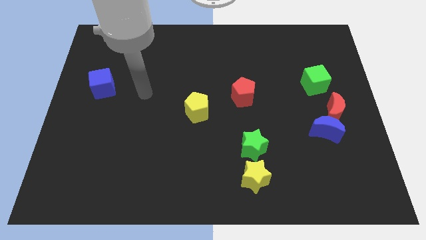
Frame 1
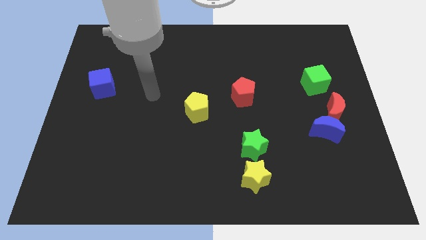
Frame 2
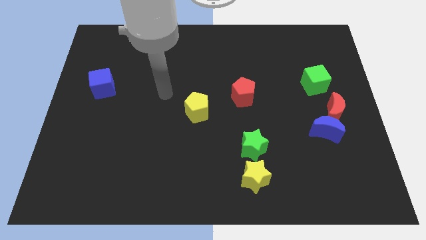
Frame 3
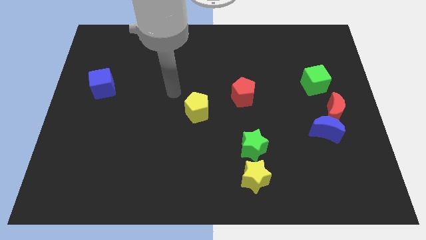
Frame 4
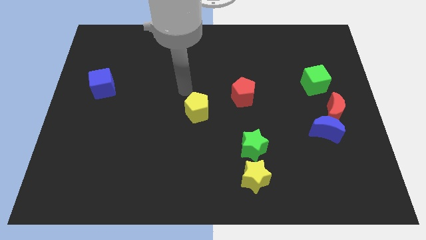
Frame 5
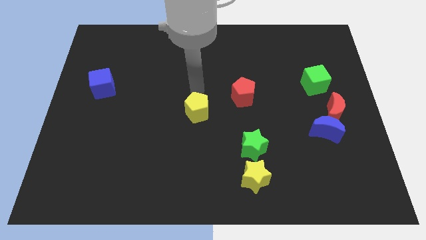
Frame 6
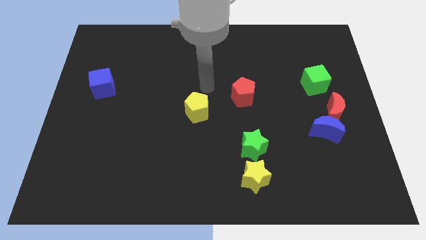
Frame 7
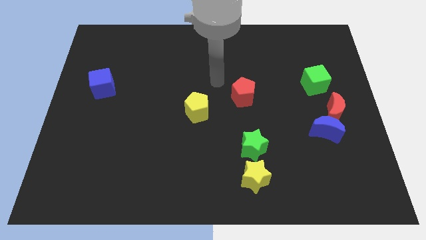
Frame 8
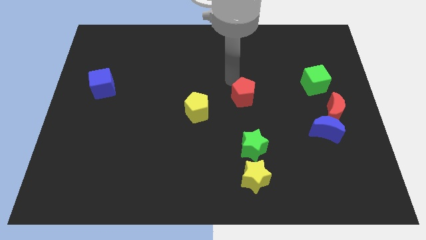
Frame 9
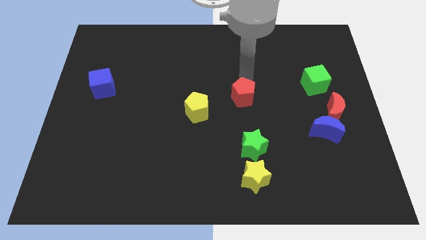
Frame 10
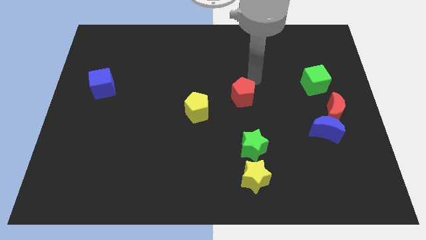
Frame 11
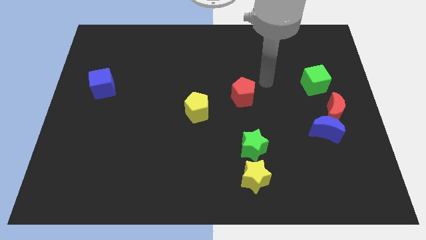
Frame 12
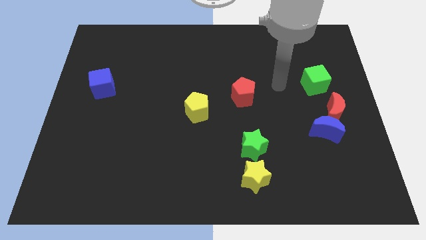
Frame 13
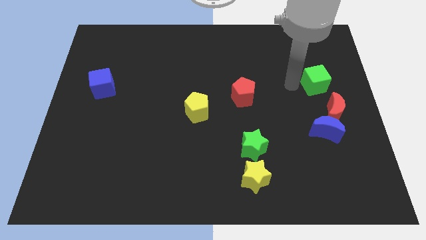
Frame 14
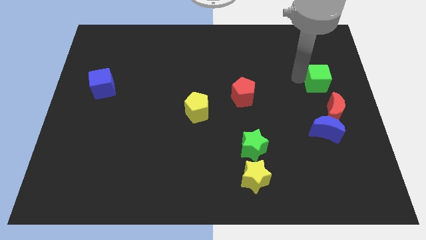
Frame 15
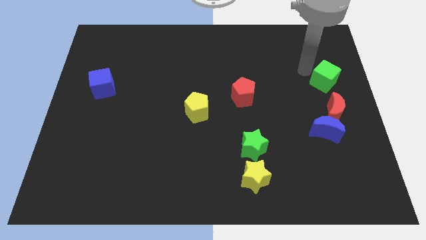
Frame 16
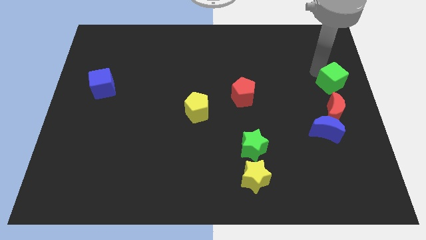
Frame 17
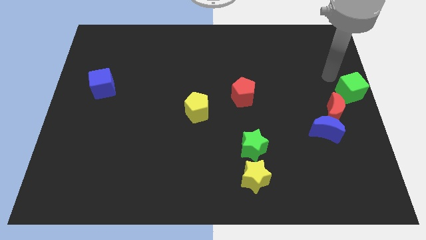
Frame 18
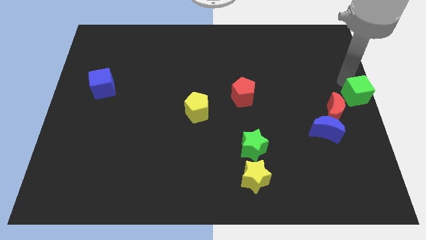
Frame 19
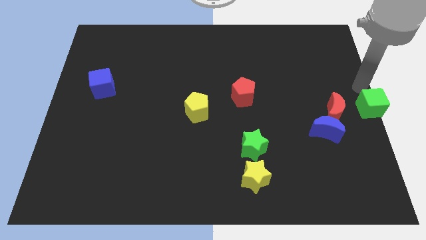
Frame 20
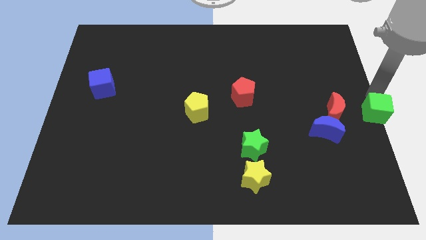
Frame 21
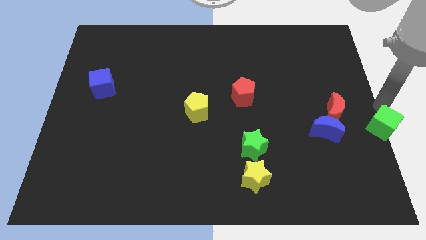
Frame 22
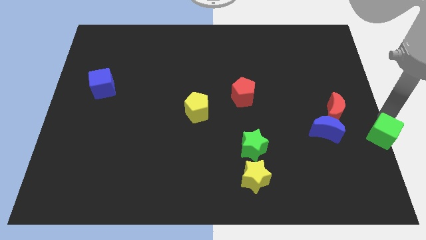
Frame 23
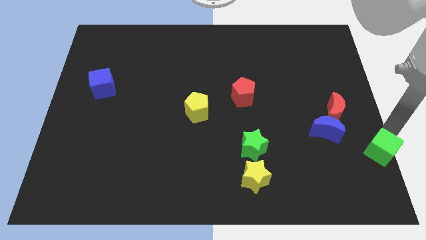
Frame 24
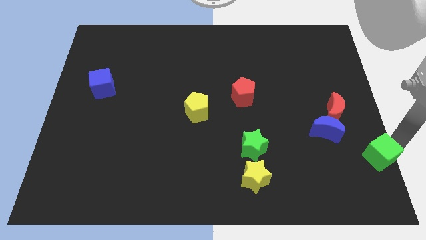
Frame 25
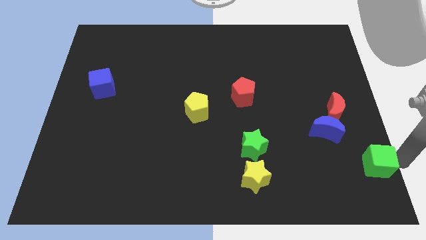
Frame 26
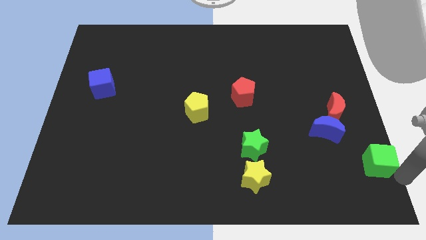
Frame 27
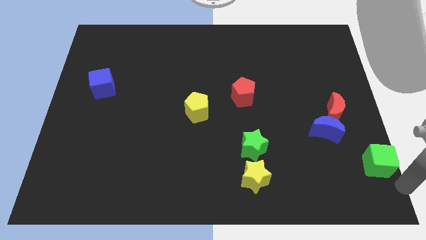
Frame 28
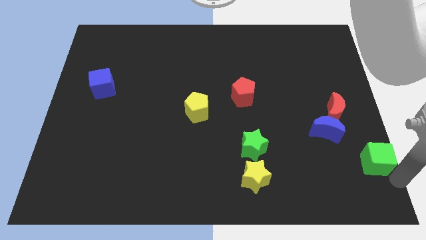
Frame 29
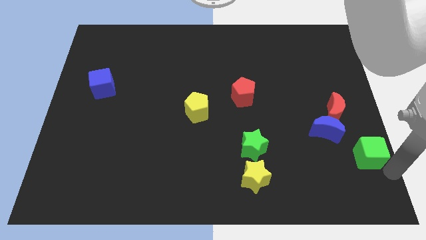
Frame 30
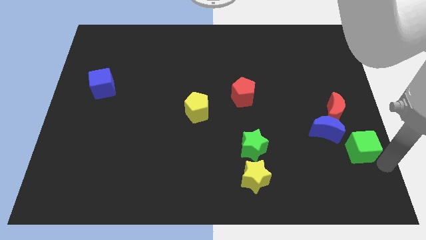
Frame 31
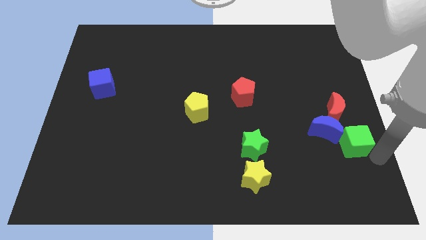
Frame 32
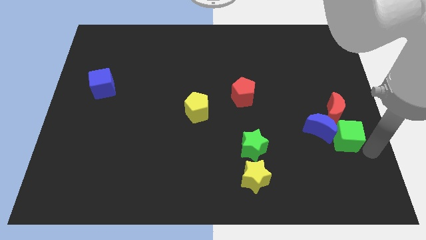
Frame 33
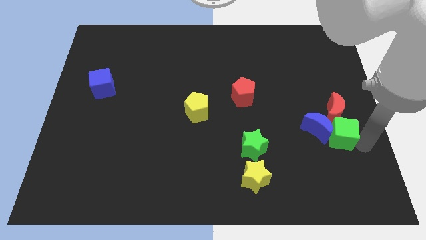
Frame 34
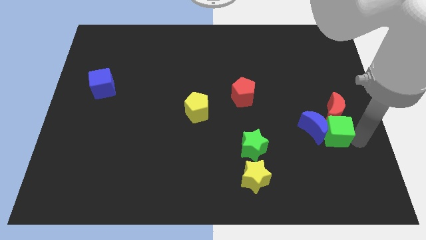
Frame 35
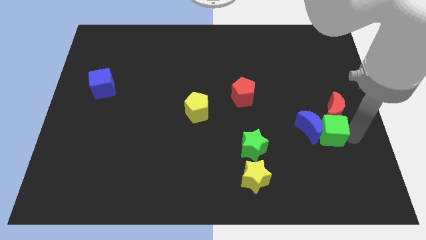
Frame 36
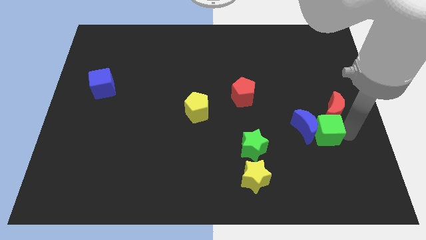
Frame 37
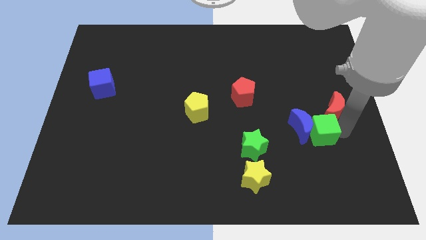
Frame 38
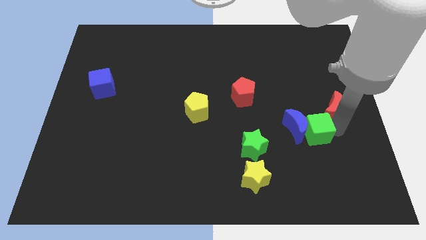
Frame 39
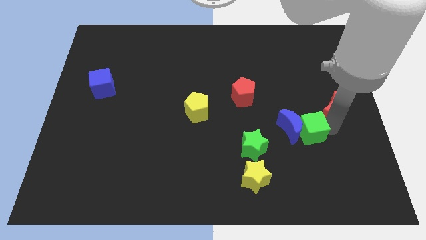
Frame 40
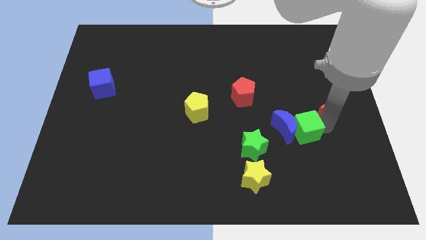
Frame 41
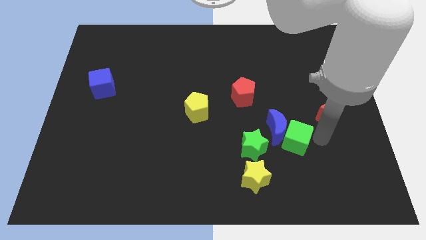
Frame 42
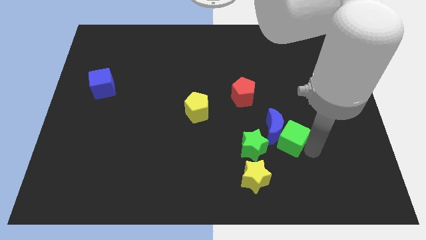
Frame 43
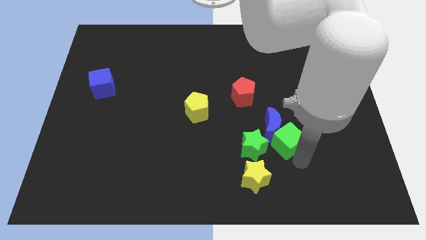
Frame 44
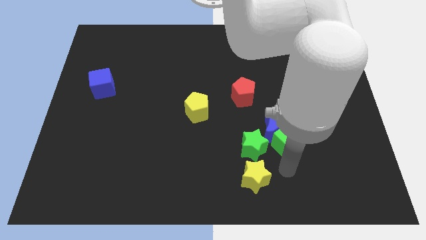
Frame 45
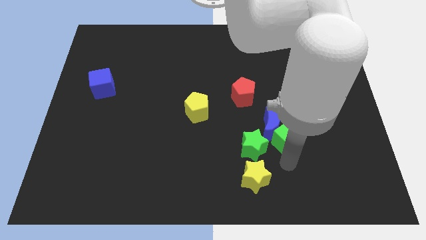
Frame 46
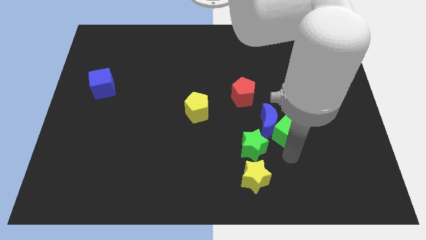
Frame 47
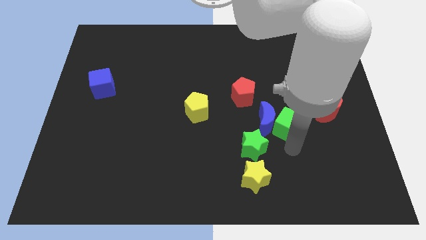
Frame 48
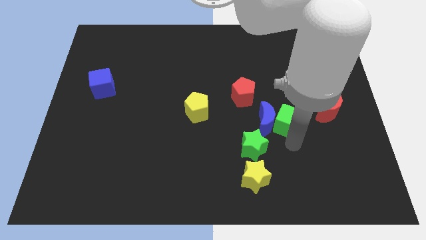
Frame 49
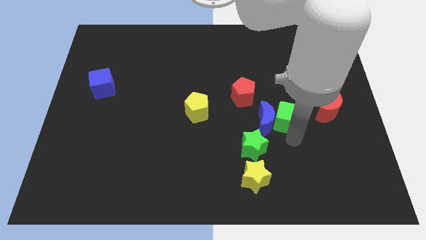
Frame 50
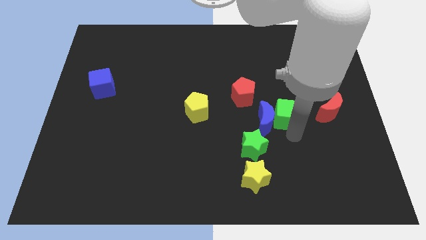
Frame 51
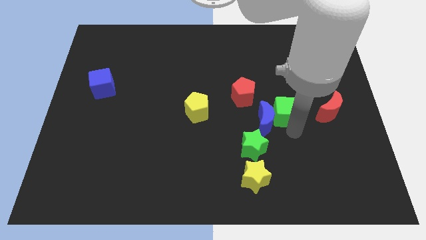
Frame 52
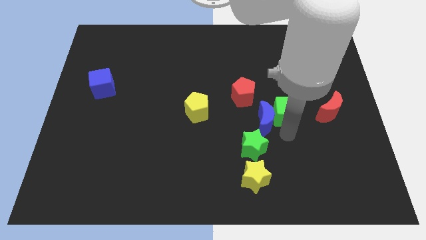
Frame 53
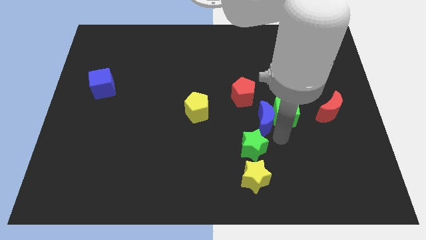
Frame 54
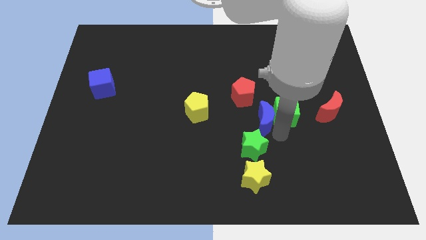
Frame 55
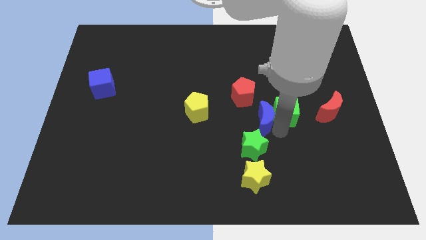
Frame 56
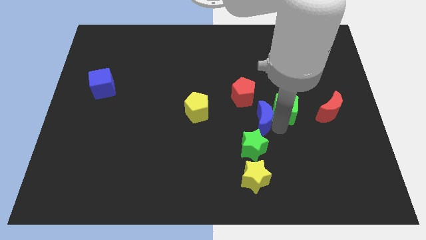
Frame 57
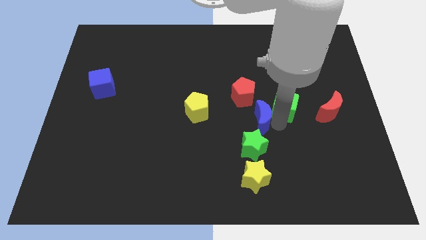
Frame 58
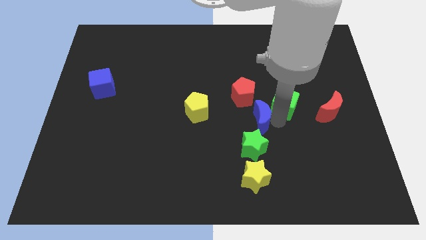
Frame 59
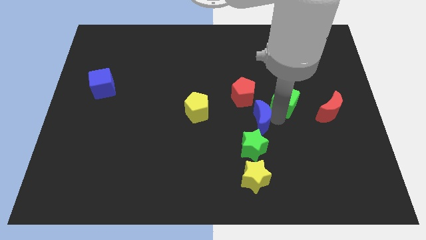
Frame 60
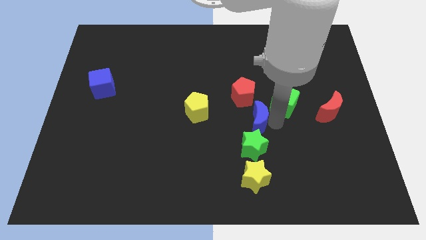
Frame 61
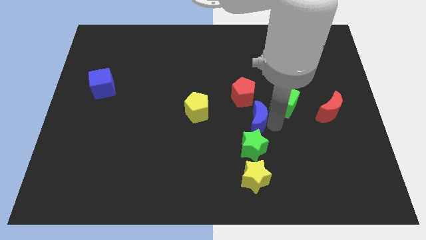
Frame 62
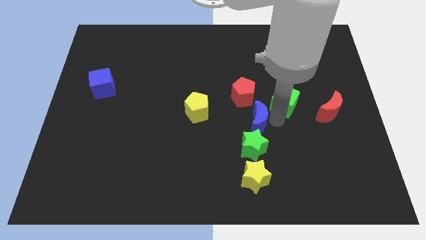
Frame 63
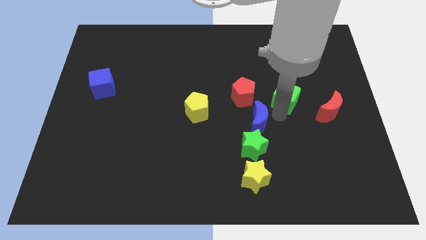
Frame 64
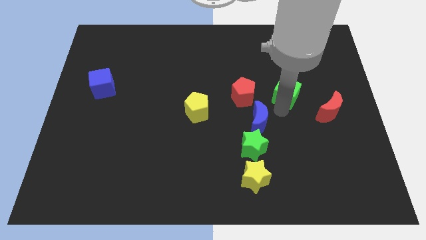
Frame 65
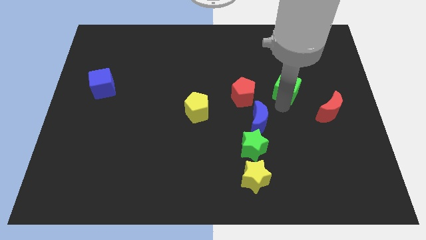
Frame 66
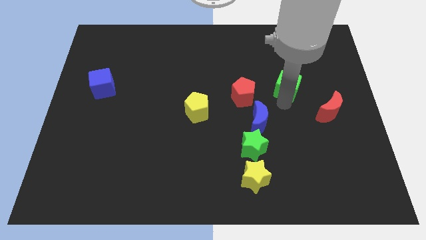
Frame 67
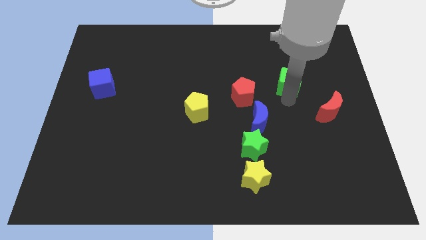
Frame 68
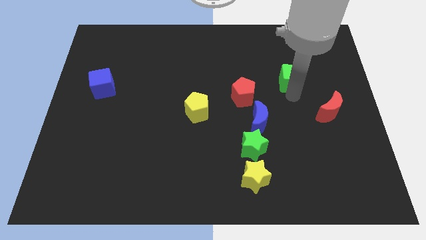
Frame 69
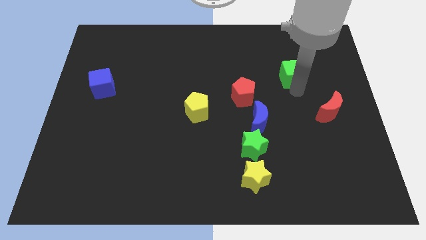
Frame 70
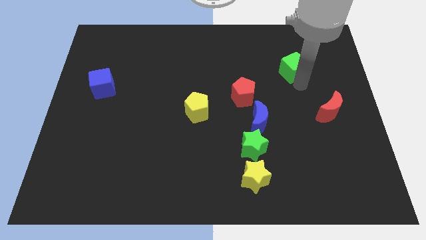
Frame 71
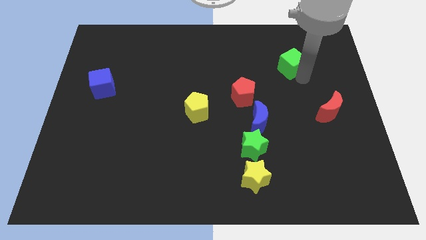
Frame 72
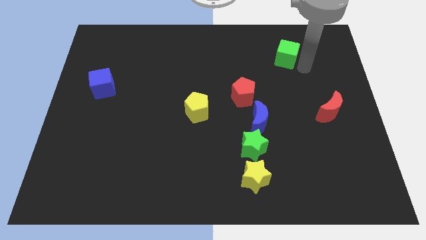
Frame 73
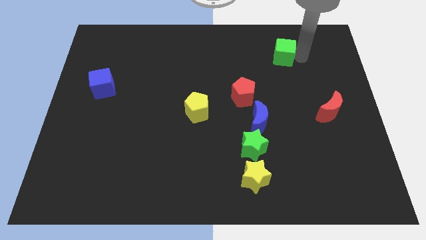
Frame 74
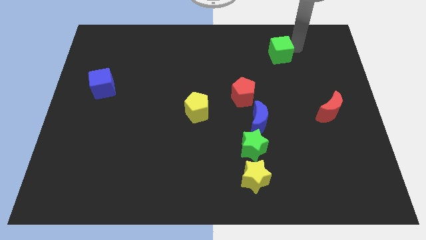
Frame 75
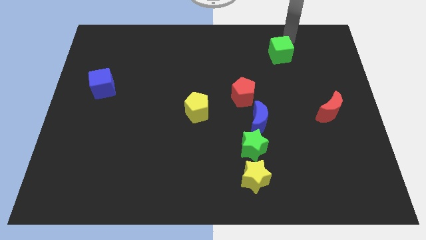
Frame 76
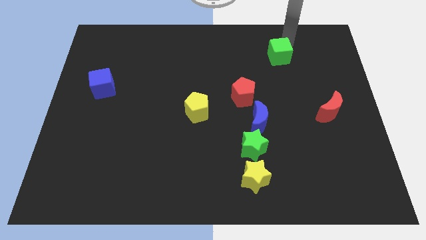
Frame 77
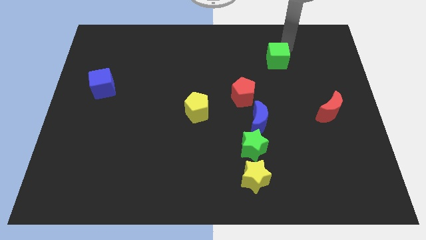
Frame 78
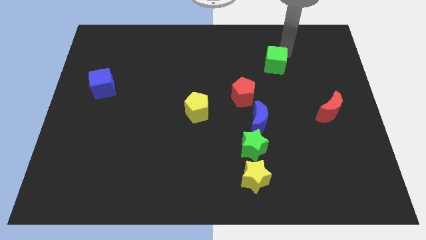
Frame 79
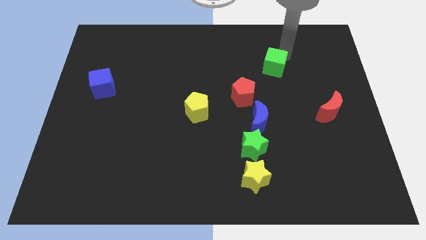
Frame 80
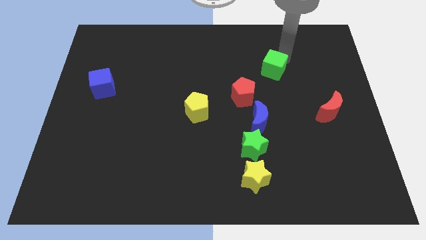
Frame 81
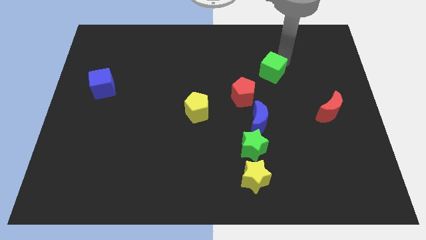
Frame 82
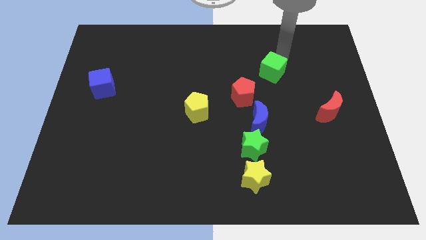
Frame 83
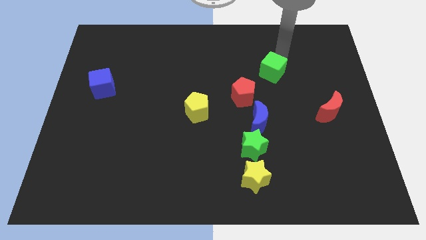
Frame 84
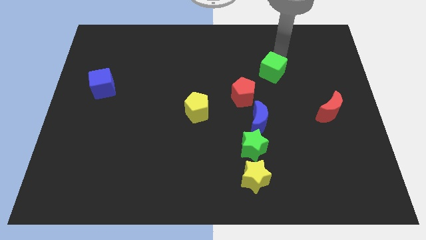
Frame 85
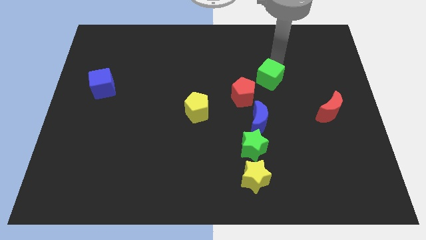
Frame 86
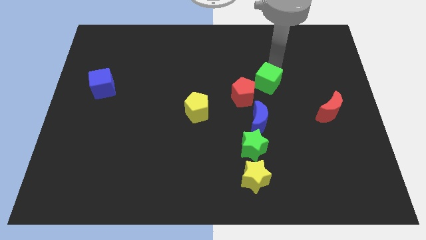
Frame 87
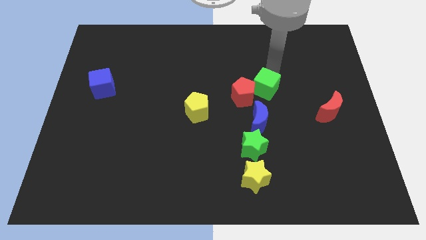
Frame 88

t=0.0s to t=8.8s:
push the green cube next to the red pentagon
